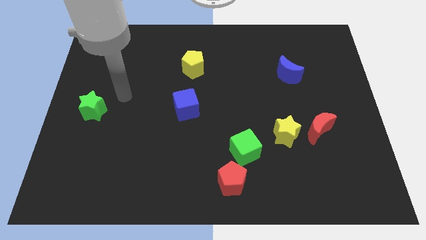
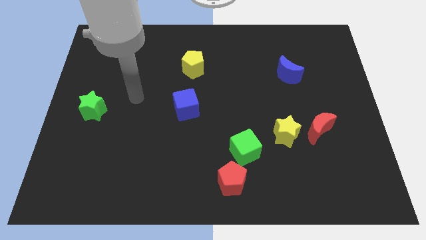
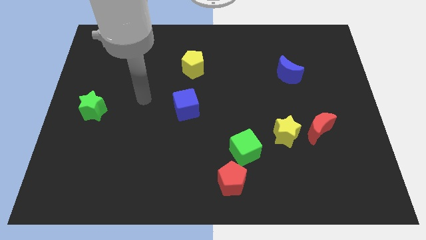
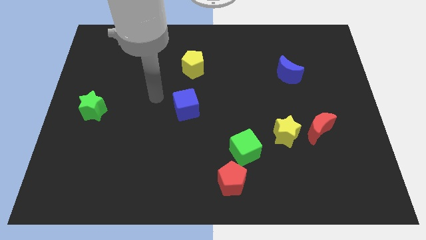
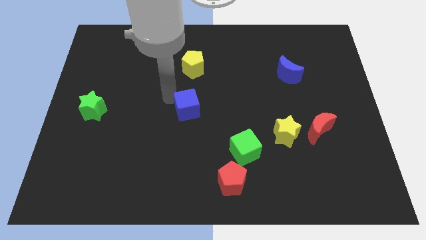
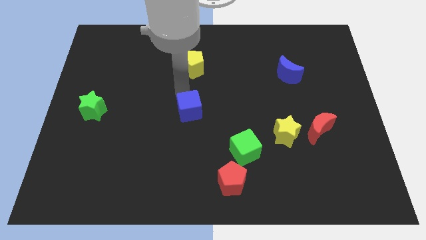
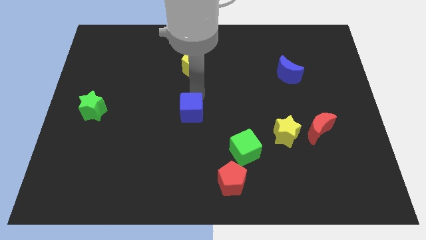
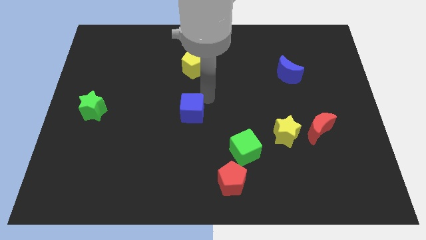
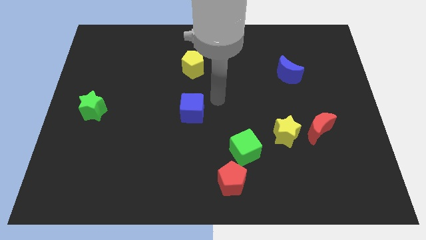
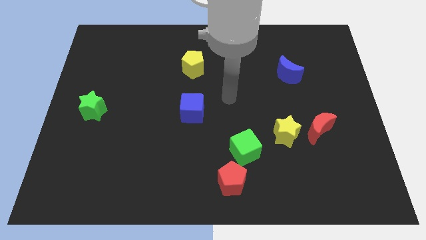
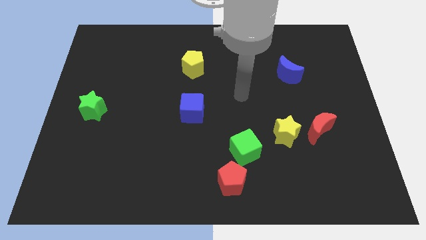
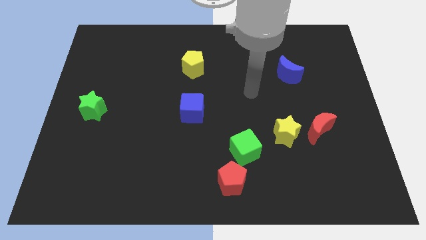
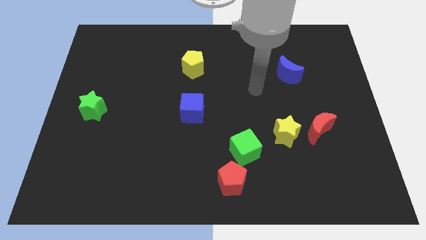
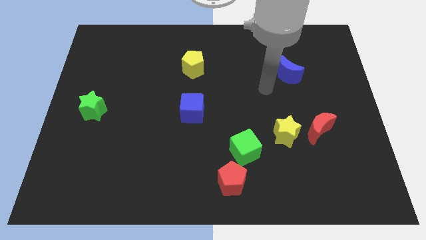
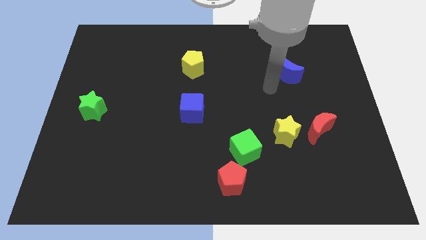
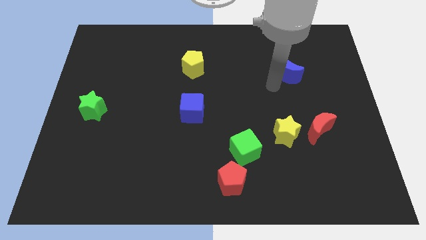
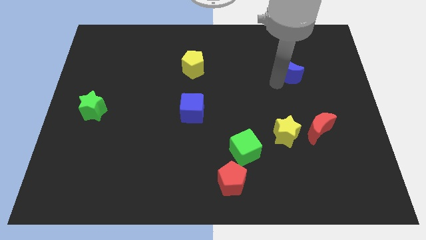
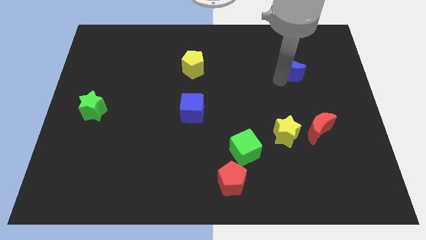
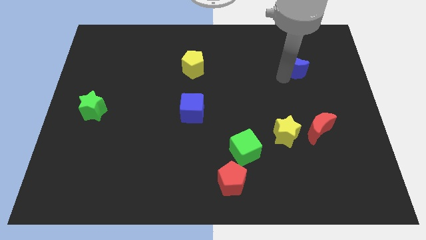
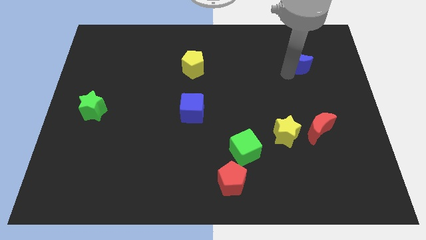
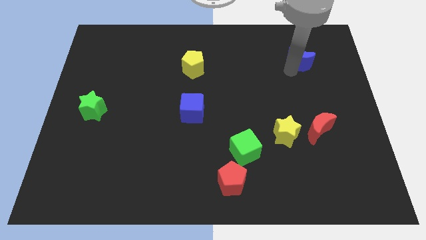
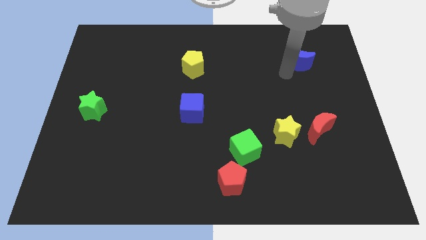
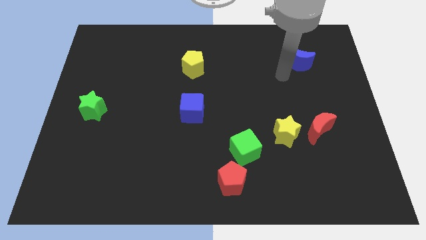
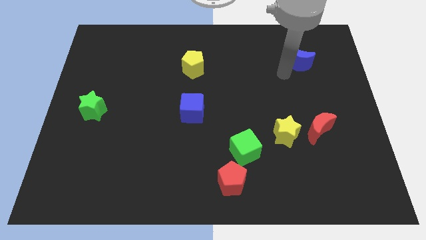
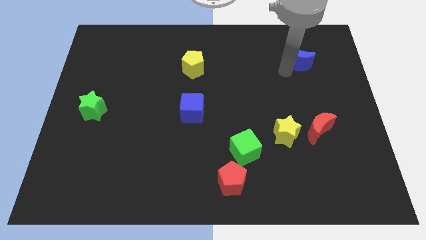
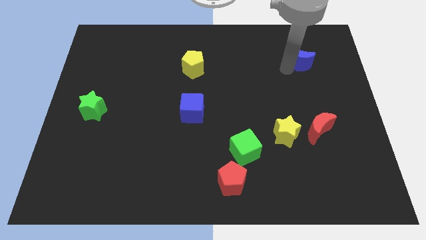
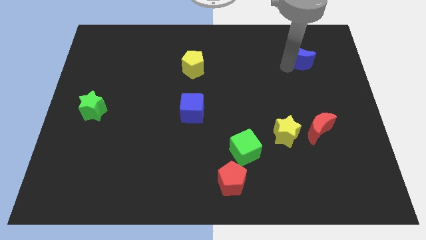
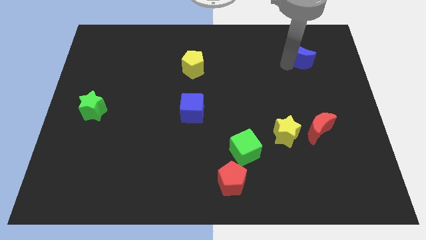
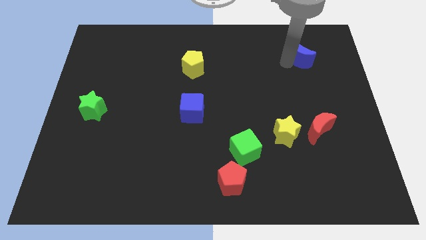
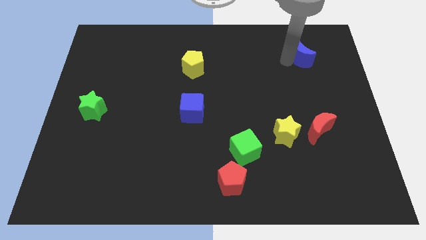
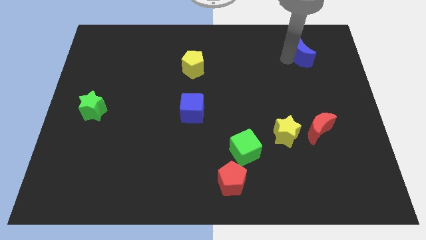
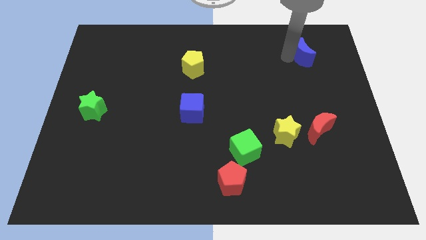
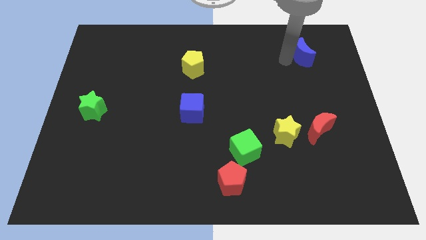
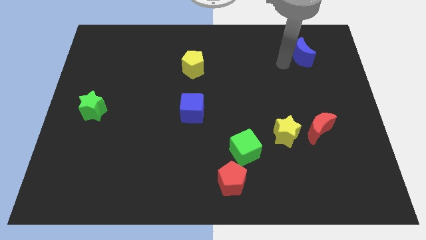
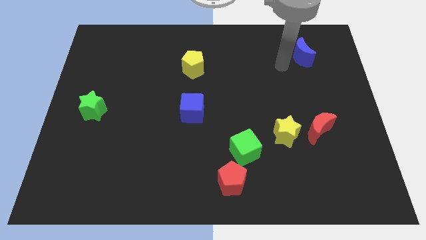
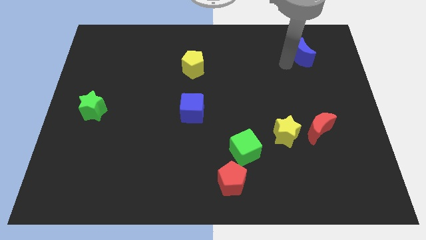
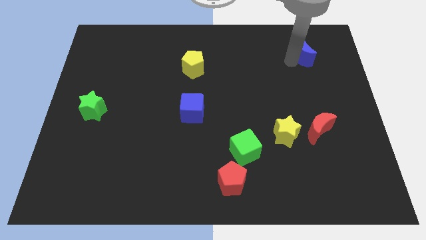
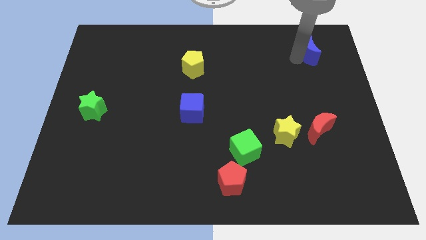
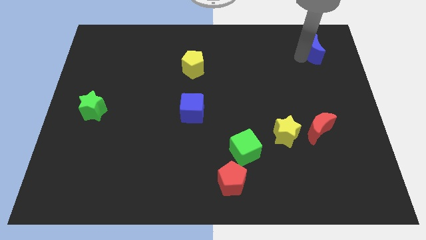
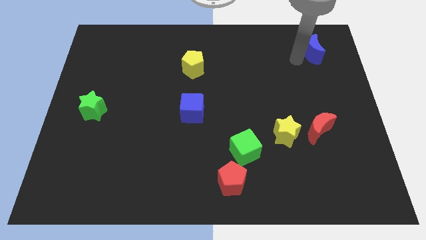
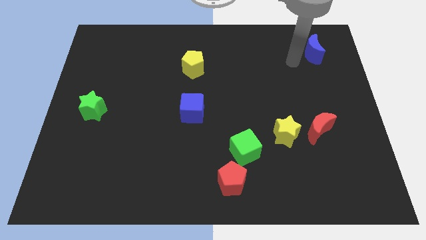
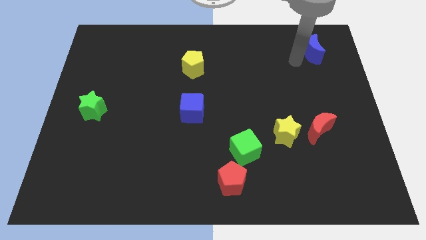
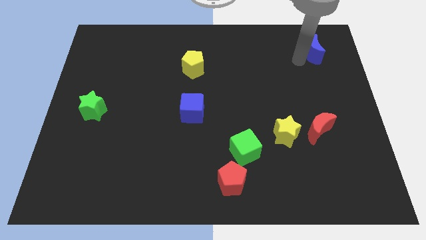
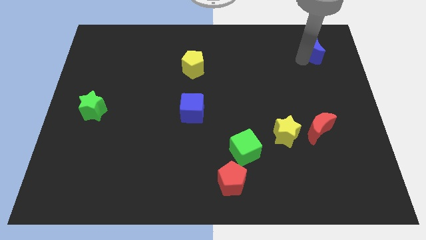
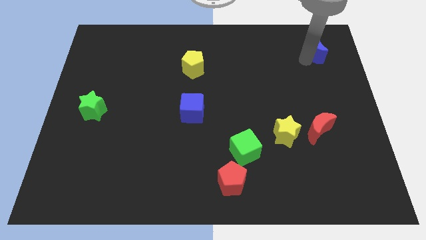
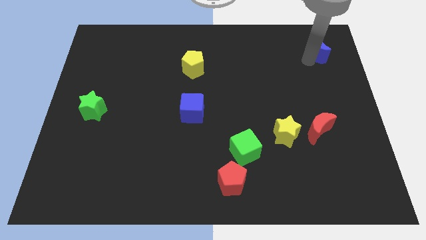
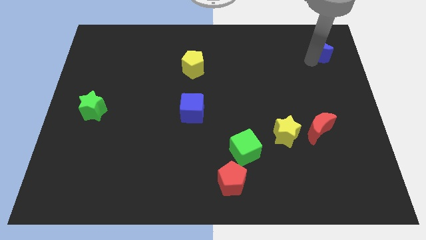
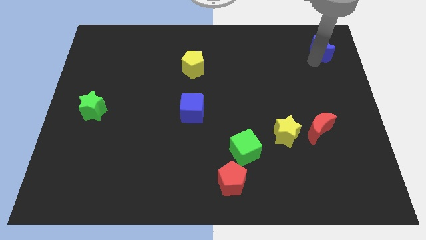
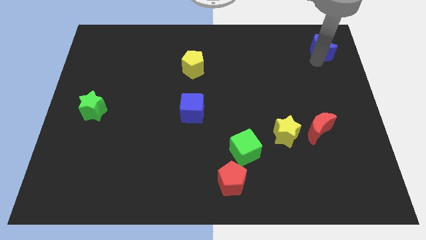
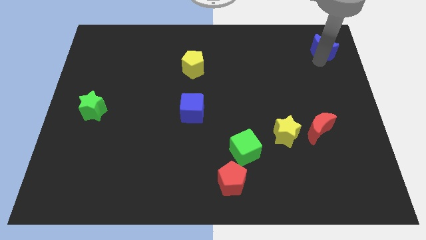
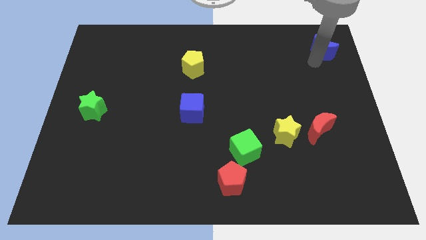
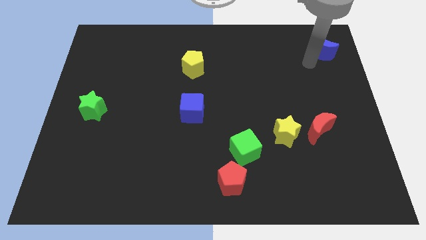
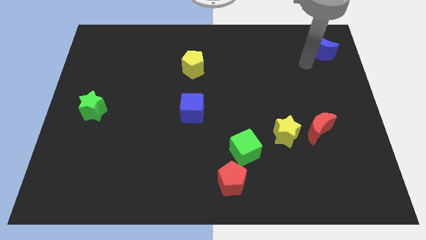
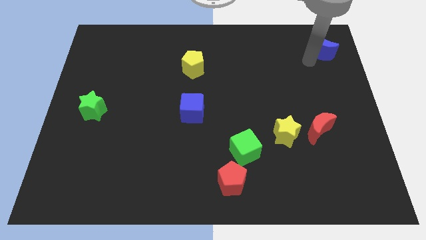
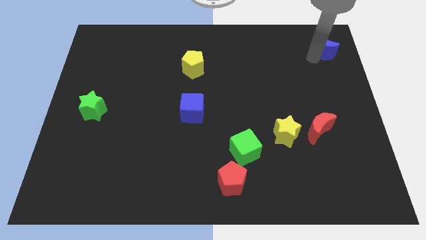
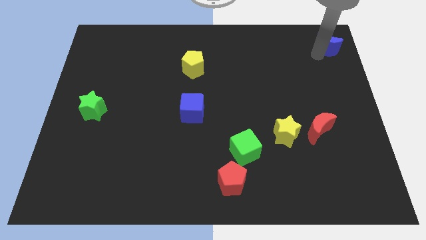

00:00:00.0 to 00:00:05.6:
push the blue moon to the upper right corner

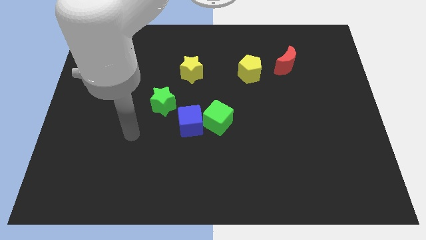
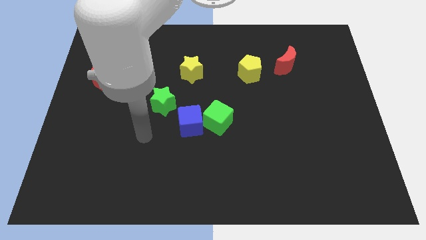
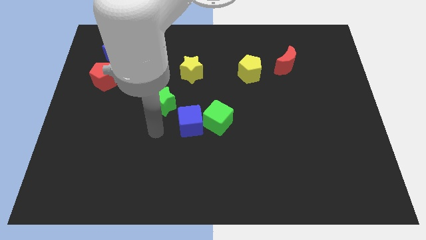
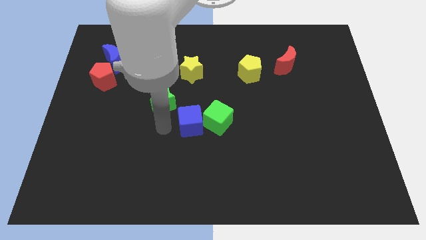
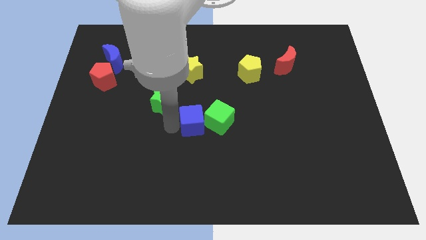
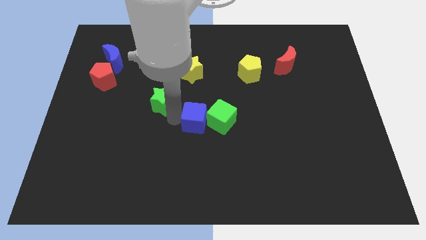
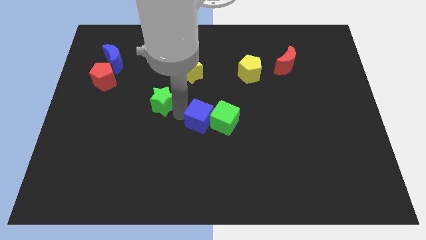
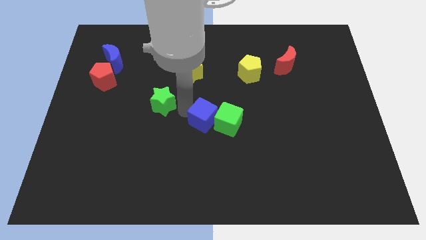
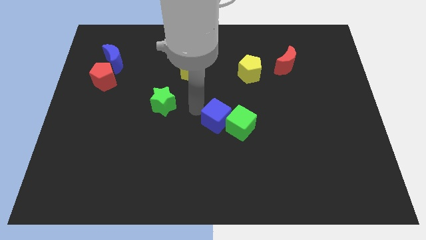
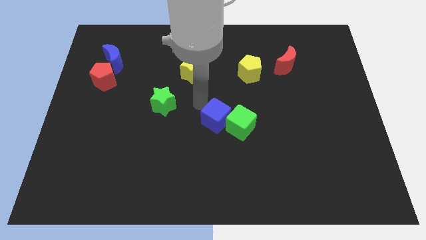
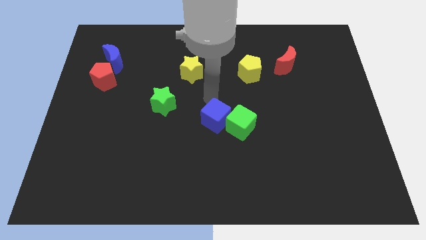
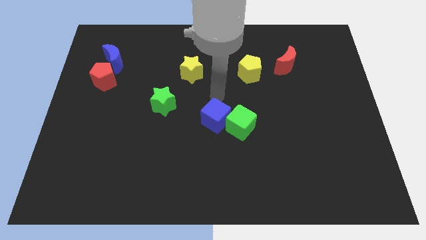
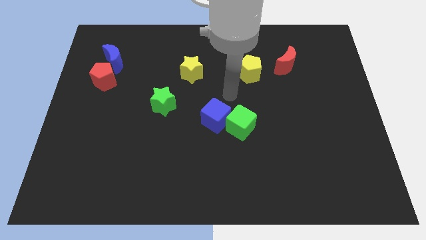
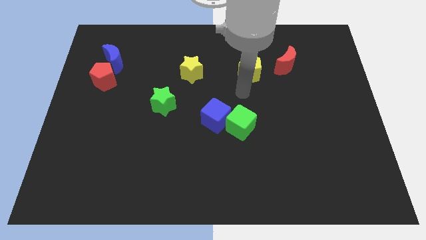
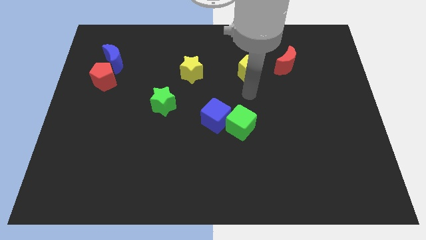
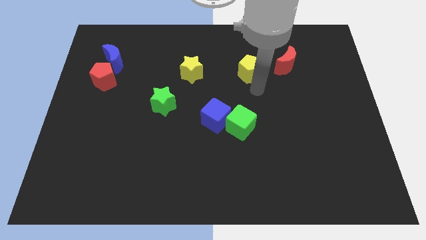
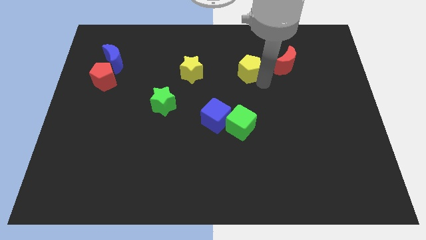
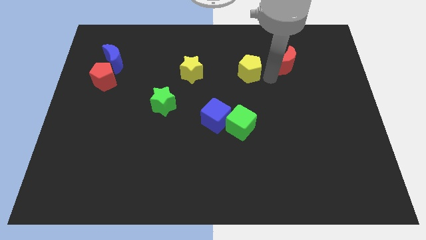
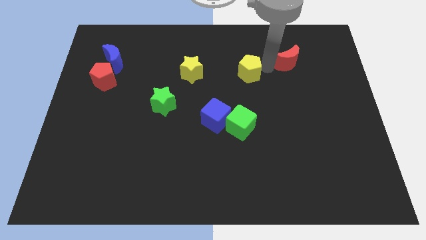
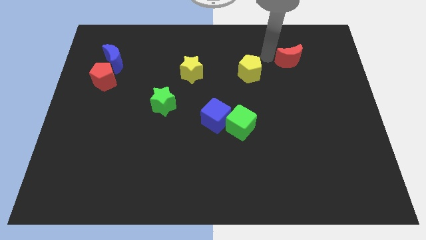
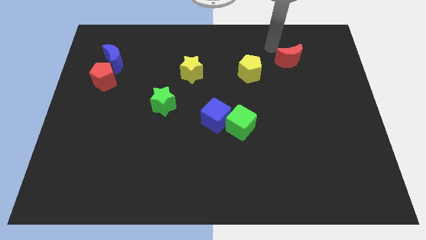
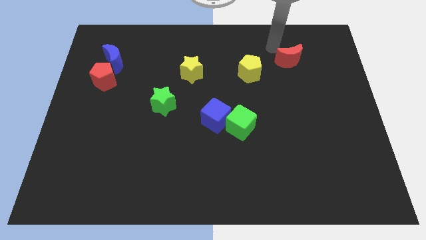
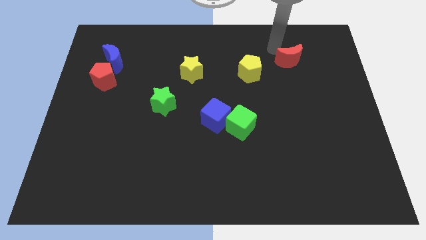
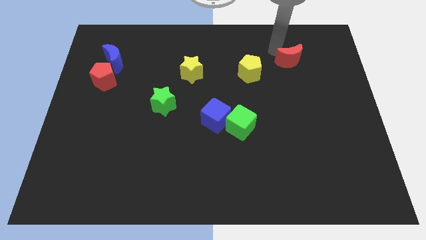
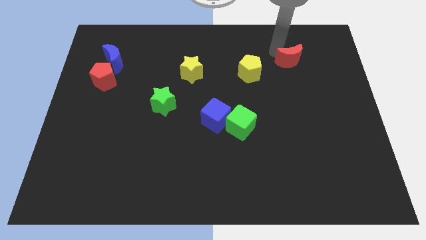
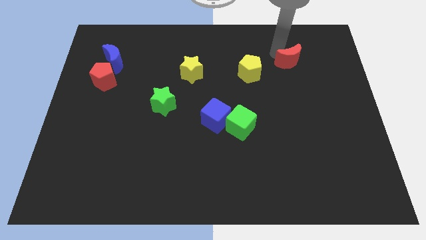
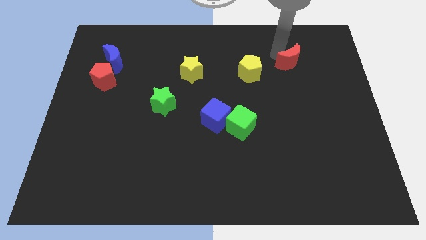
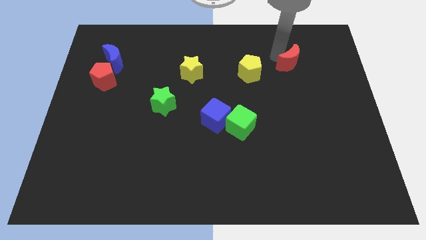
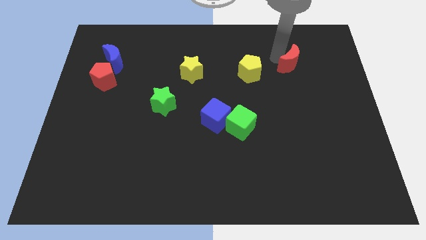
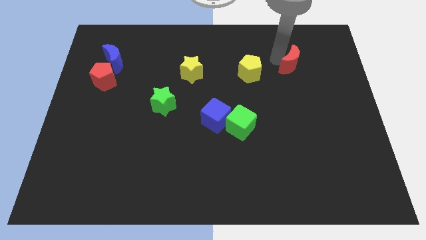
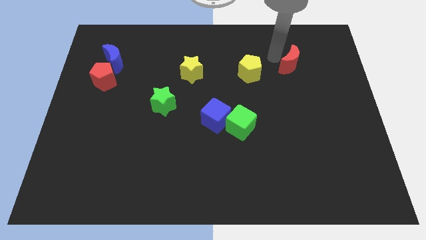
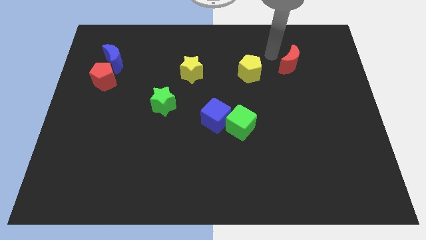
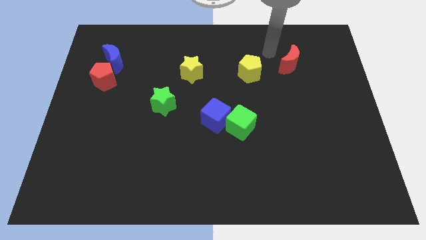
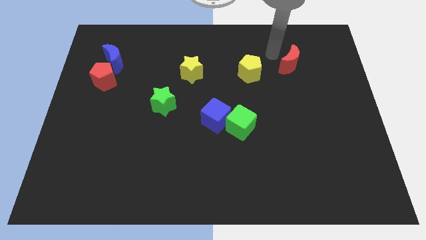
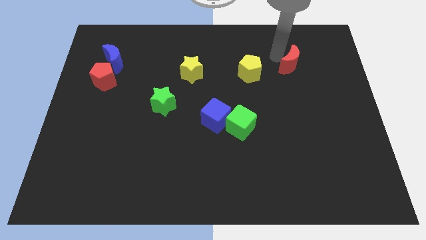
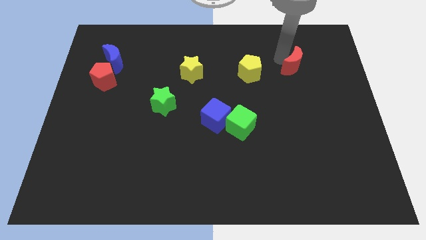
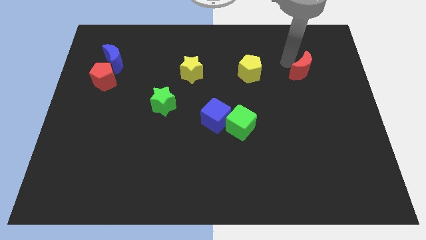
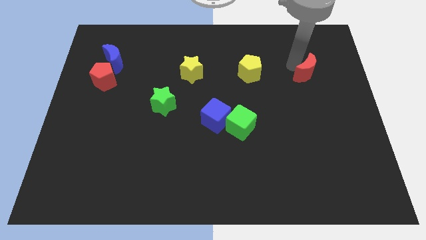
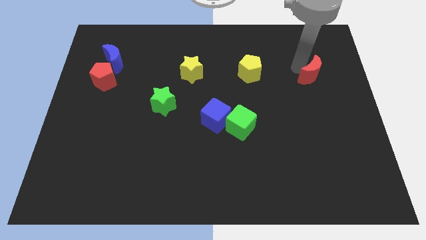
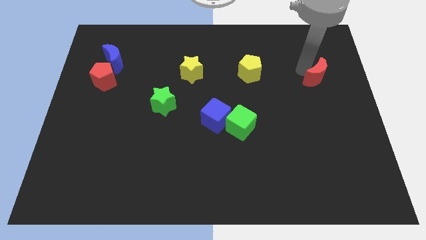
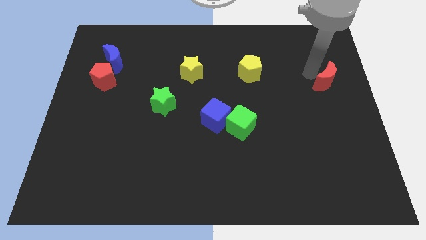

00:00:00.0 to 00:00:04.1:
put the red moon to the center right
